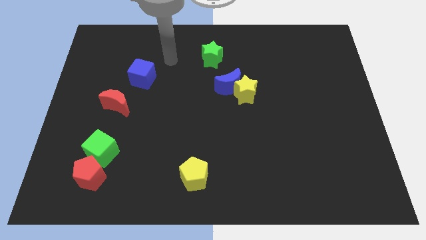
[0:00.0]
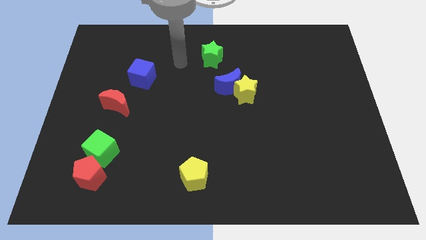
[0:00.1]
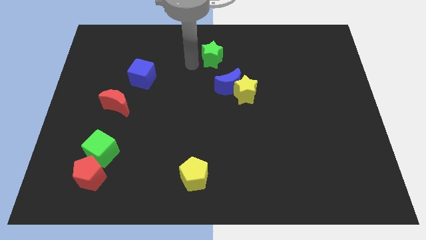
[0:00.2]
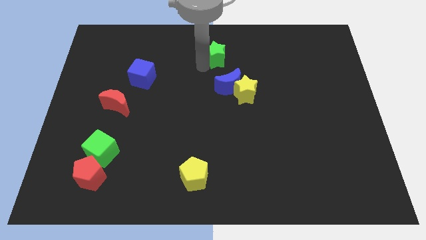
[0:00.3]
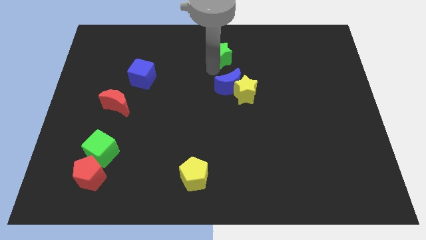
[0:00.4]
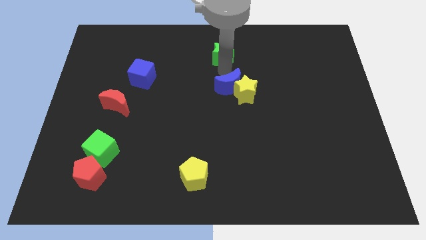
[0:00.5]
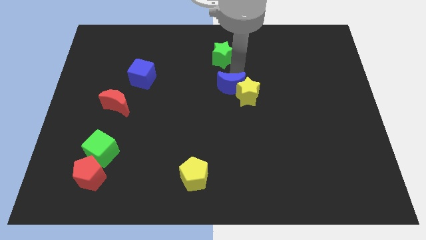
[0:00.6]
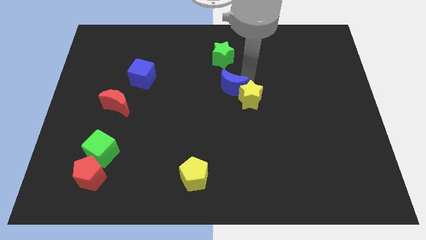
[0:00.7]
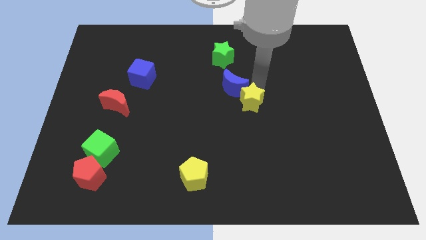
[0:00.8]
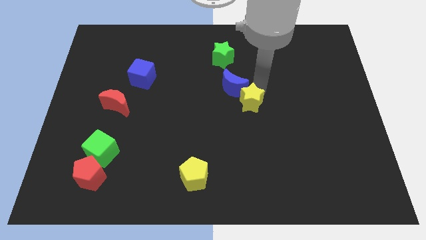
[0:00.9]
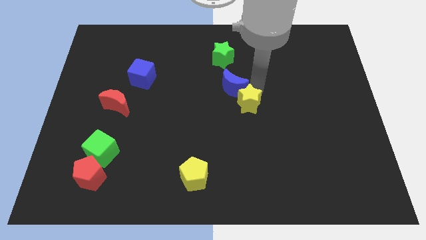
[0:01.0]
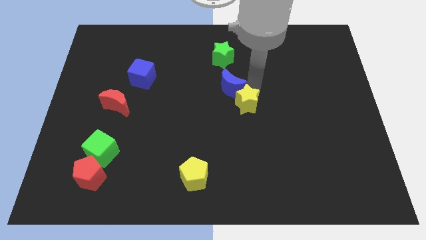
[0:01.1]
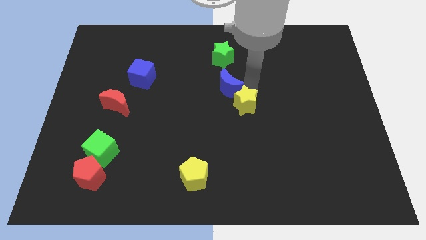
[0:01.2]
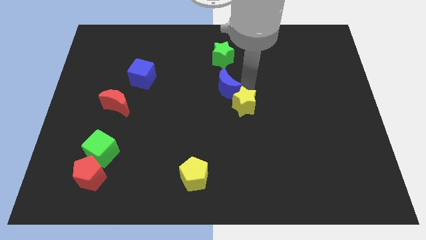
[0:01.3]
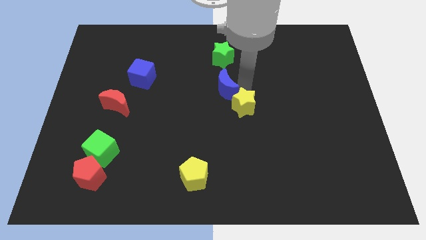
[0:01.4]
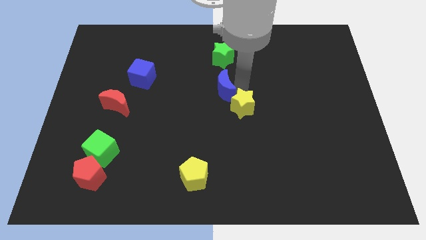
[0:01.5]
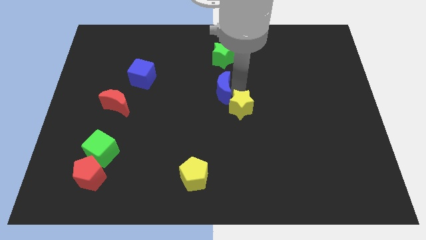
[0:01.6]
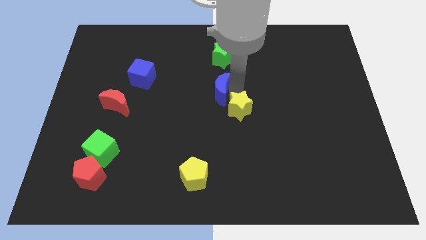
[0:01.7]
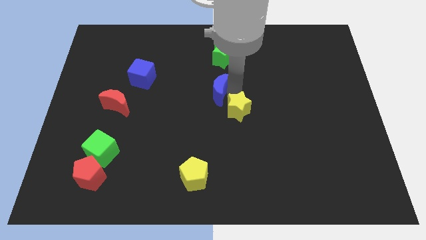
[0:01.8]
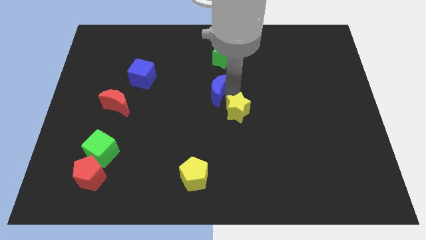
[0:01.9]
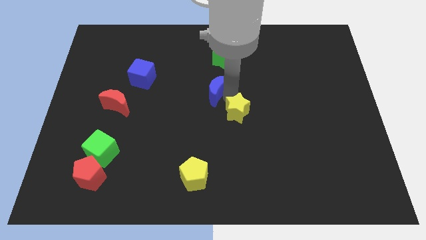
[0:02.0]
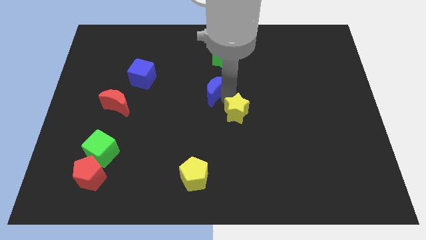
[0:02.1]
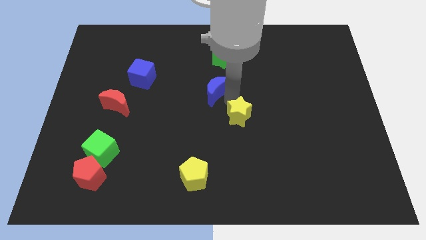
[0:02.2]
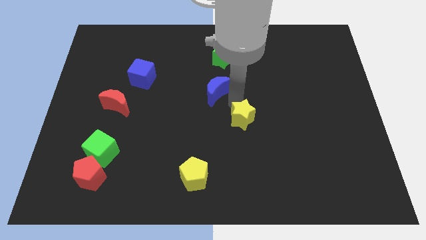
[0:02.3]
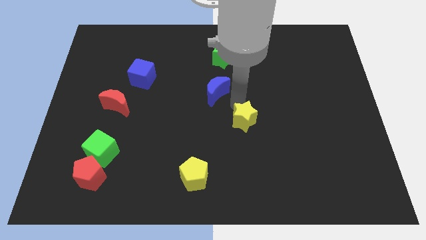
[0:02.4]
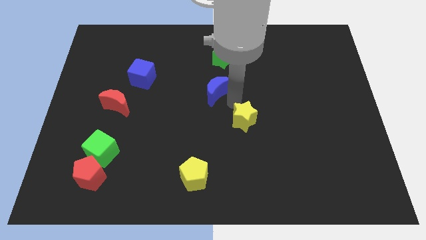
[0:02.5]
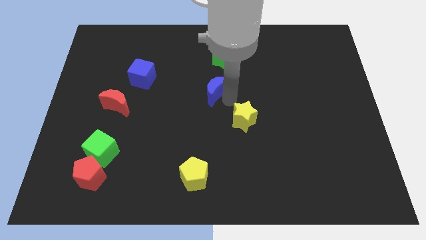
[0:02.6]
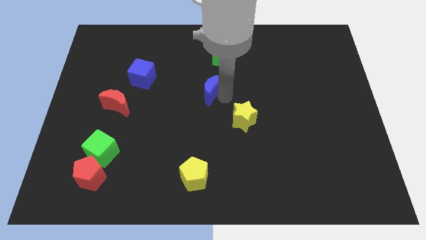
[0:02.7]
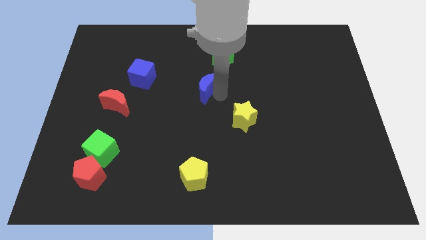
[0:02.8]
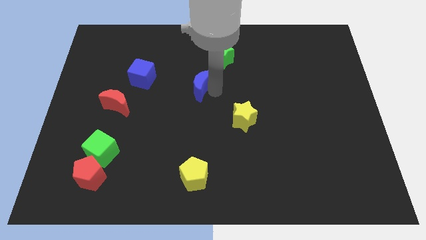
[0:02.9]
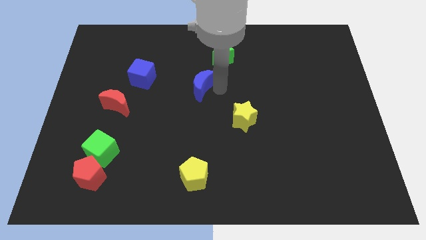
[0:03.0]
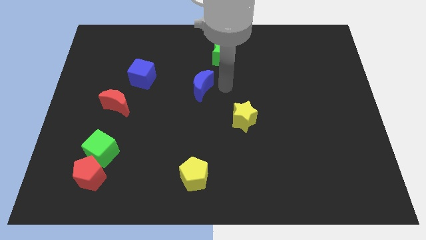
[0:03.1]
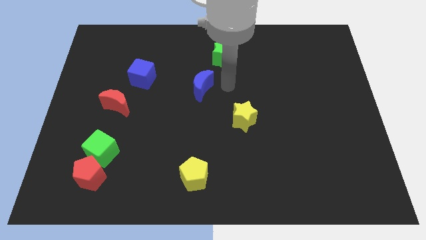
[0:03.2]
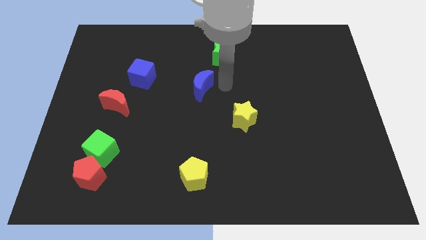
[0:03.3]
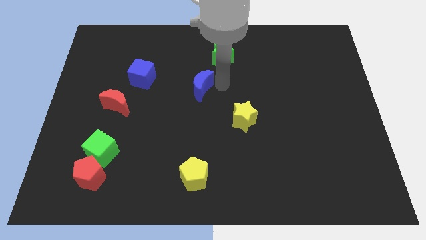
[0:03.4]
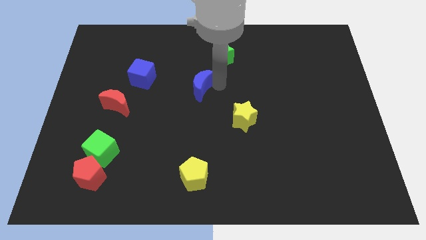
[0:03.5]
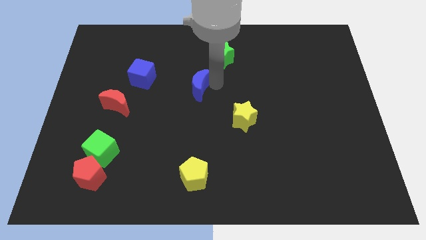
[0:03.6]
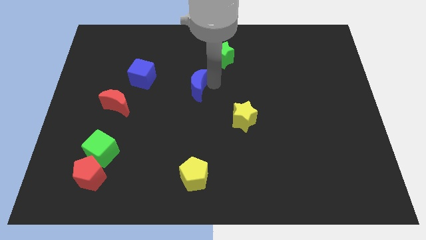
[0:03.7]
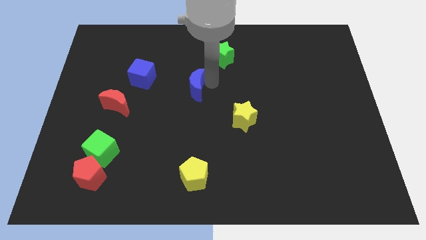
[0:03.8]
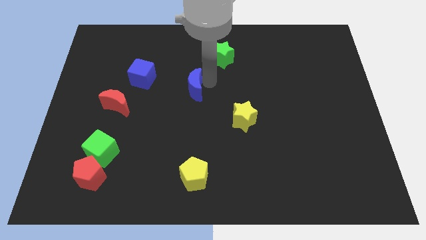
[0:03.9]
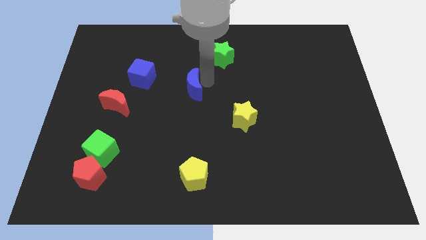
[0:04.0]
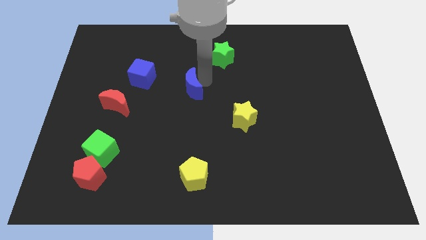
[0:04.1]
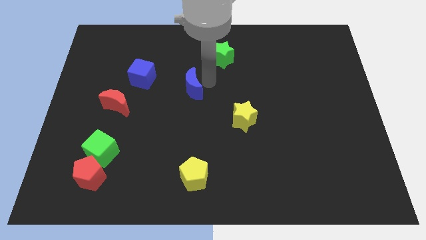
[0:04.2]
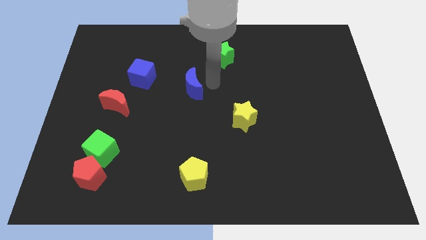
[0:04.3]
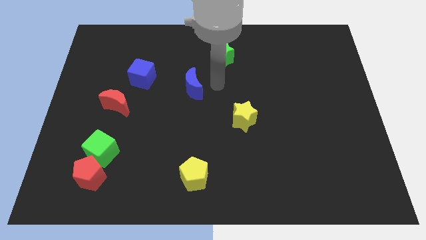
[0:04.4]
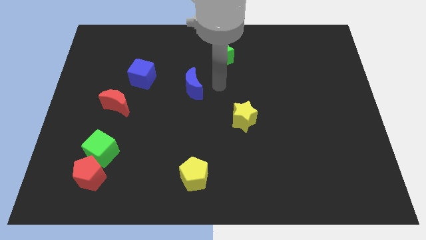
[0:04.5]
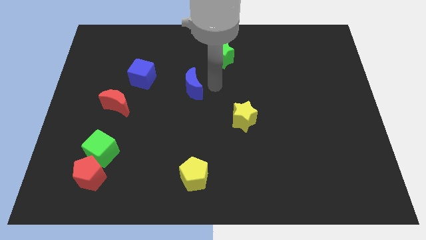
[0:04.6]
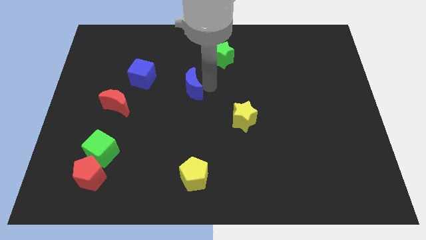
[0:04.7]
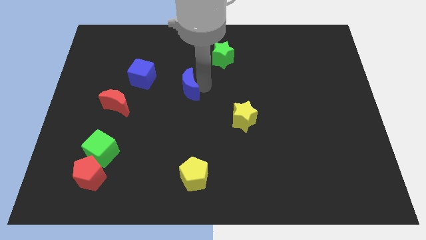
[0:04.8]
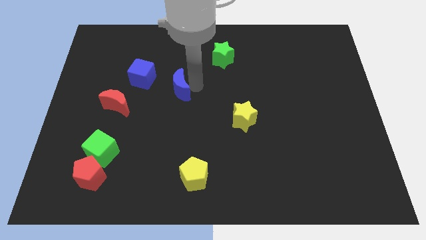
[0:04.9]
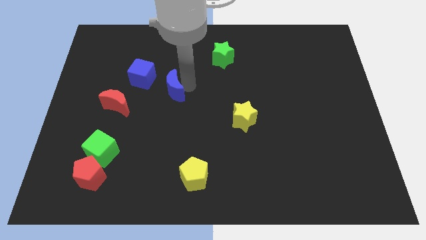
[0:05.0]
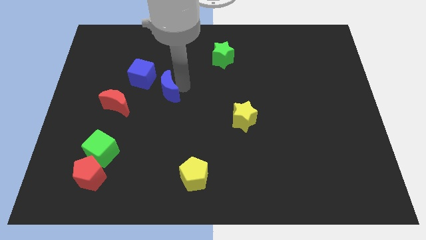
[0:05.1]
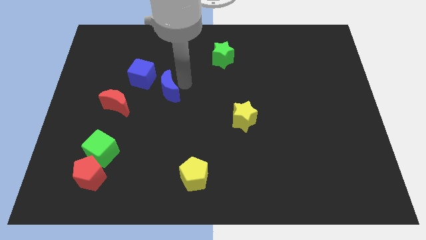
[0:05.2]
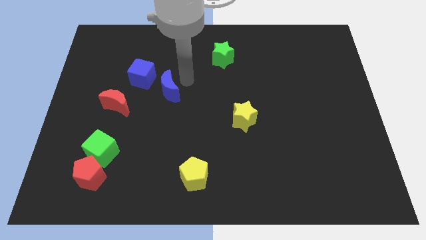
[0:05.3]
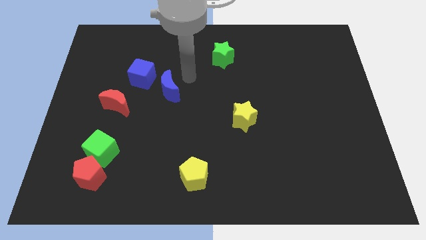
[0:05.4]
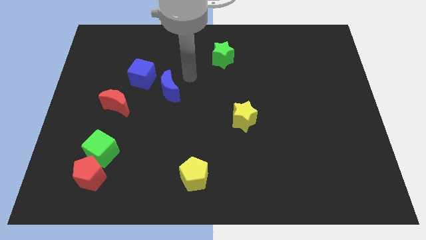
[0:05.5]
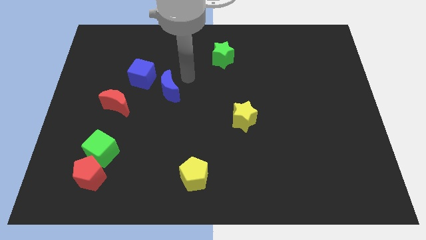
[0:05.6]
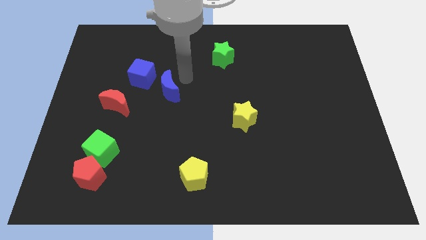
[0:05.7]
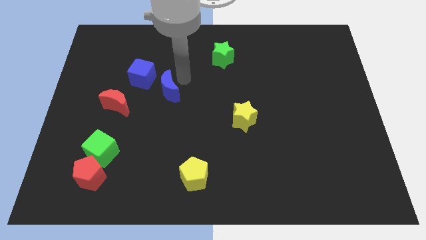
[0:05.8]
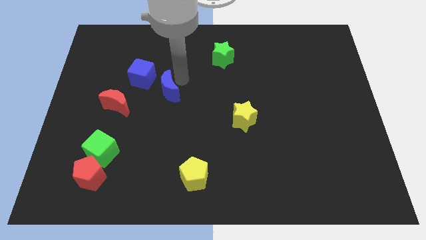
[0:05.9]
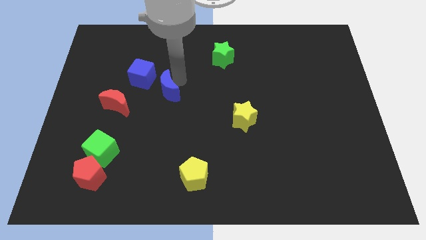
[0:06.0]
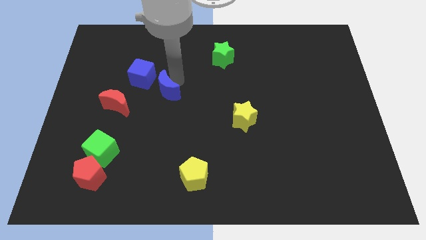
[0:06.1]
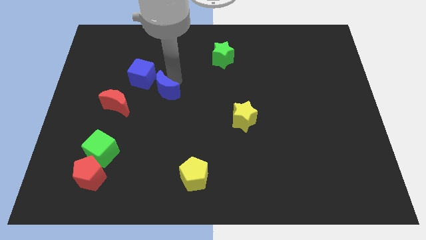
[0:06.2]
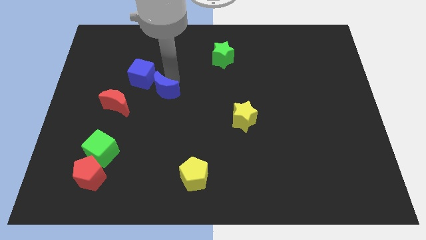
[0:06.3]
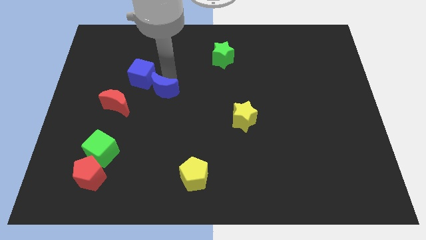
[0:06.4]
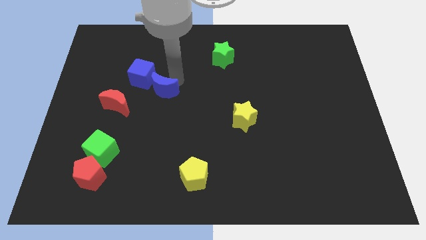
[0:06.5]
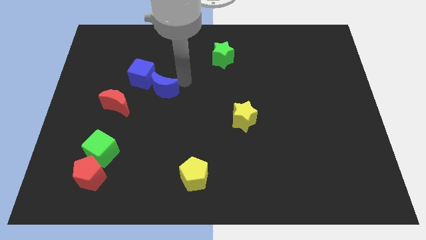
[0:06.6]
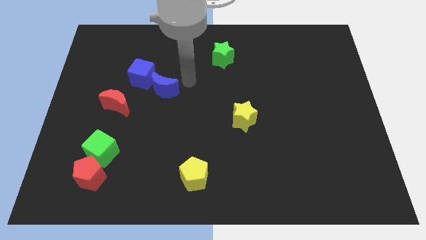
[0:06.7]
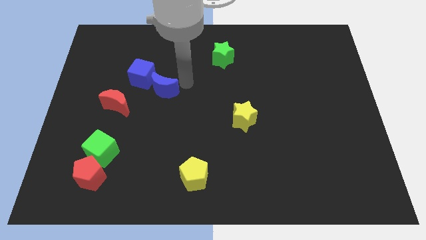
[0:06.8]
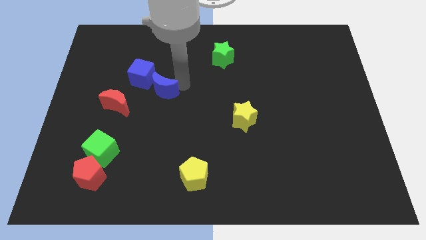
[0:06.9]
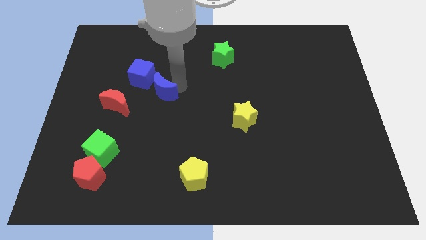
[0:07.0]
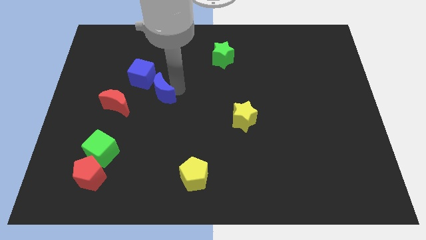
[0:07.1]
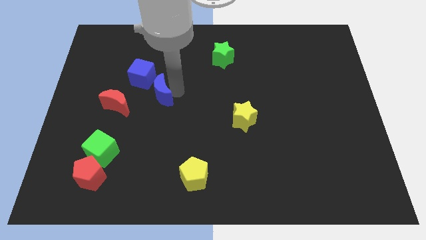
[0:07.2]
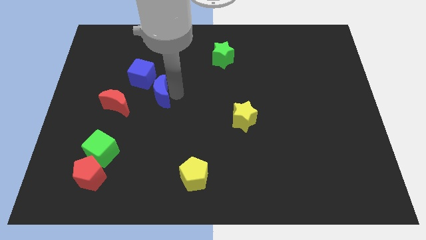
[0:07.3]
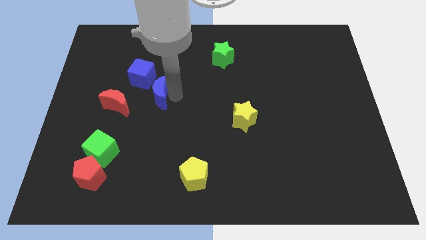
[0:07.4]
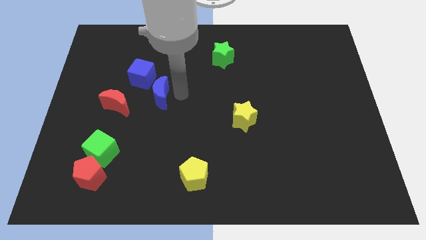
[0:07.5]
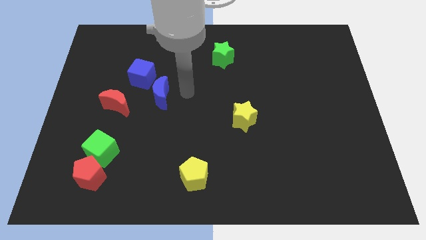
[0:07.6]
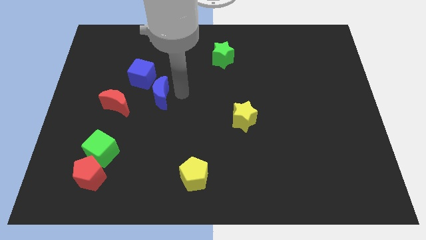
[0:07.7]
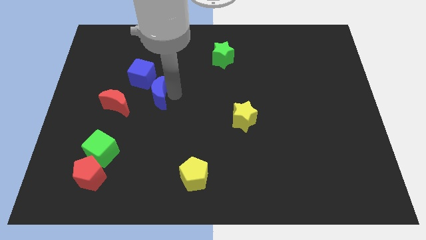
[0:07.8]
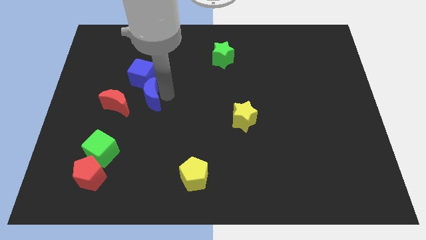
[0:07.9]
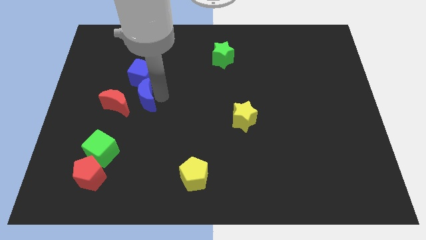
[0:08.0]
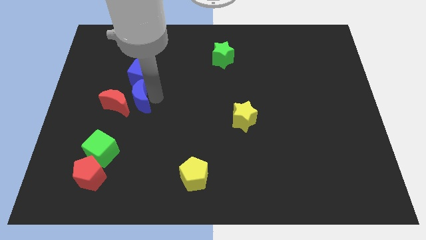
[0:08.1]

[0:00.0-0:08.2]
push the blue moon next to the red moon
